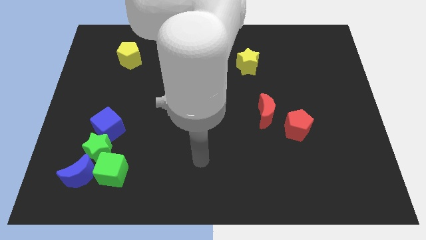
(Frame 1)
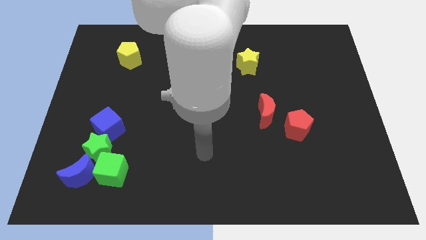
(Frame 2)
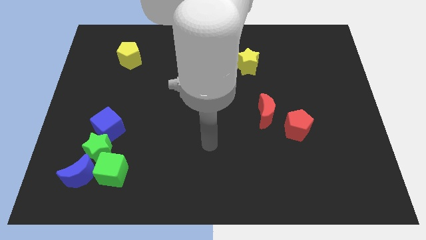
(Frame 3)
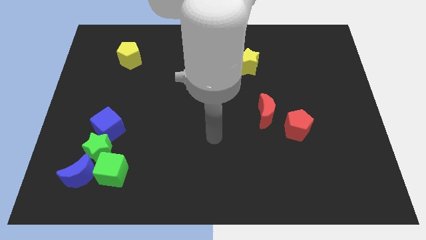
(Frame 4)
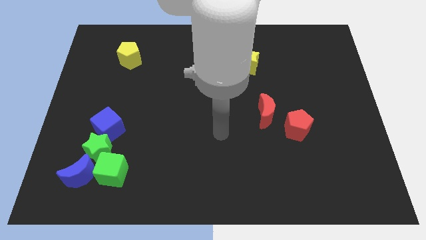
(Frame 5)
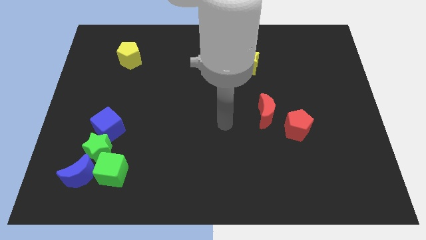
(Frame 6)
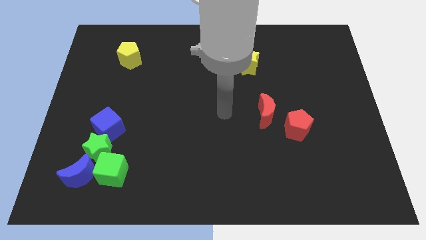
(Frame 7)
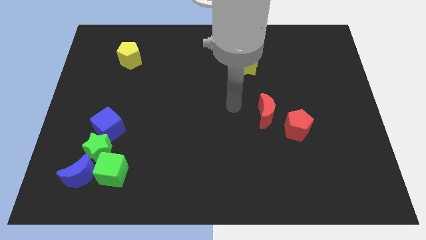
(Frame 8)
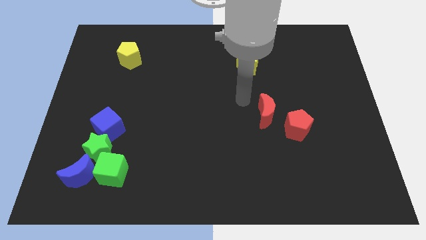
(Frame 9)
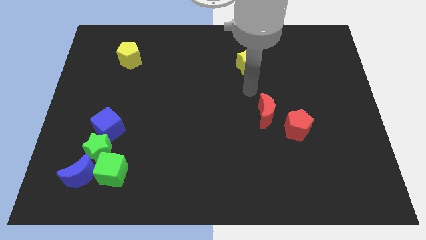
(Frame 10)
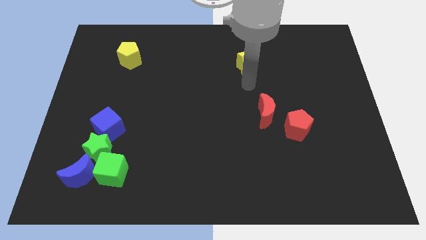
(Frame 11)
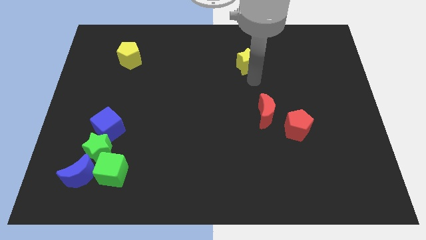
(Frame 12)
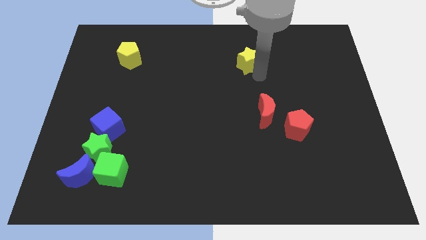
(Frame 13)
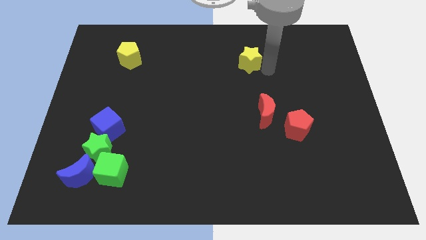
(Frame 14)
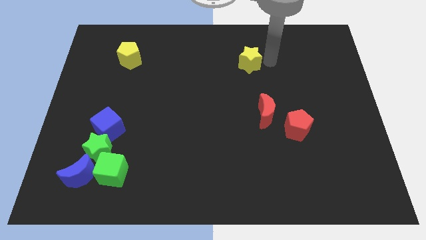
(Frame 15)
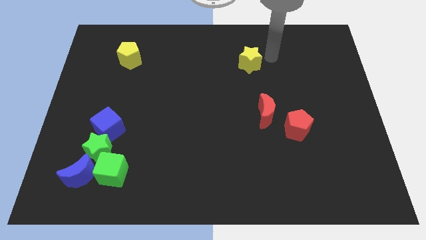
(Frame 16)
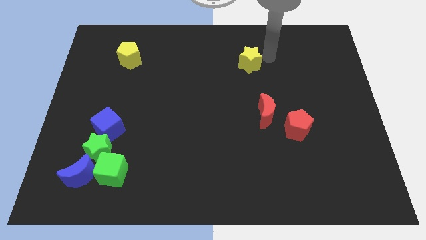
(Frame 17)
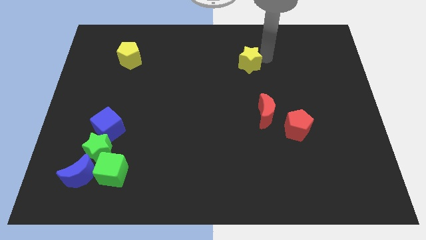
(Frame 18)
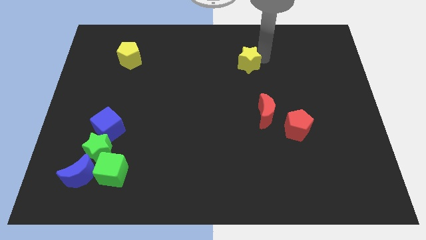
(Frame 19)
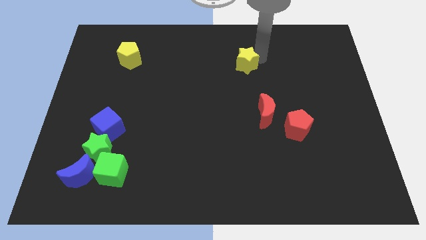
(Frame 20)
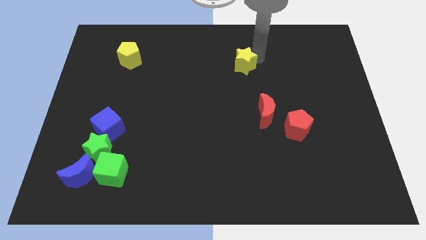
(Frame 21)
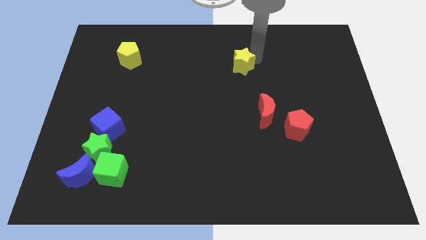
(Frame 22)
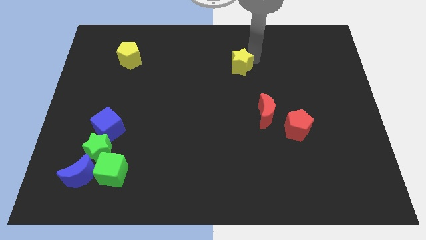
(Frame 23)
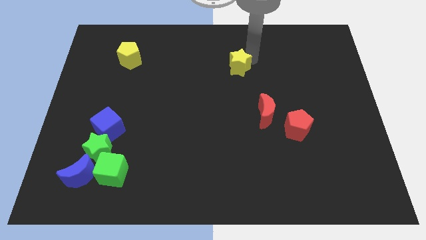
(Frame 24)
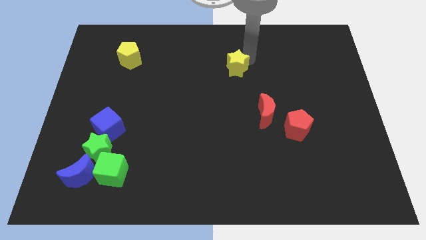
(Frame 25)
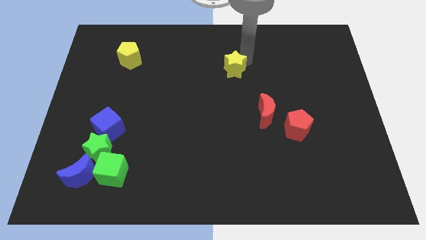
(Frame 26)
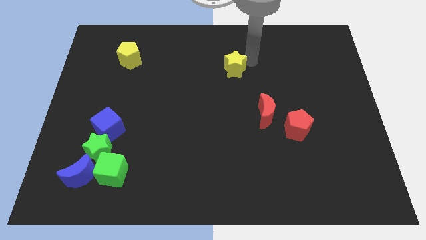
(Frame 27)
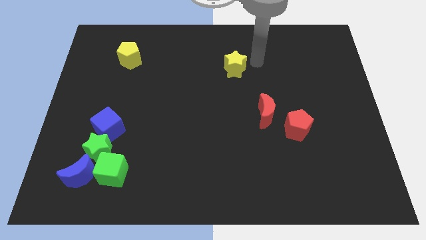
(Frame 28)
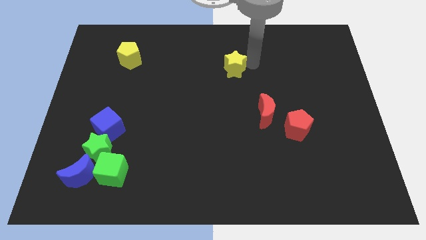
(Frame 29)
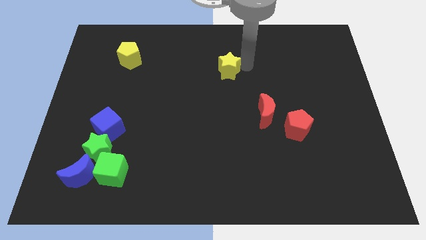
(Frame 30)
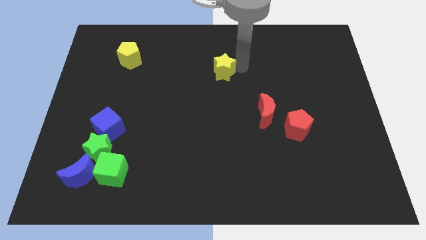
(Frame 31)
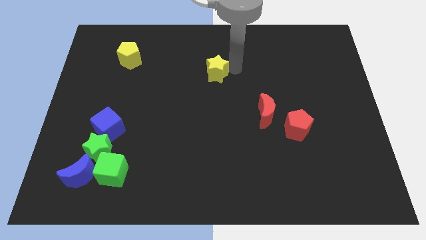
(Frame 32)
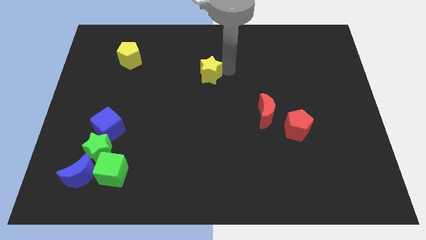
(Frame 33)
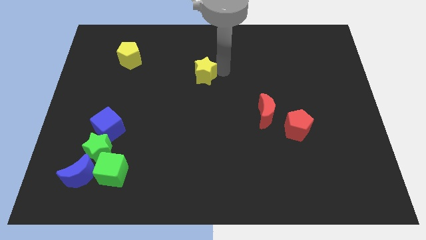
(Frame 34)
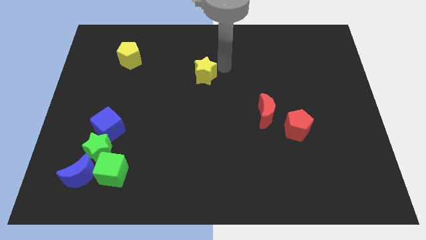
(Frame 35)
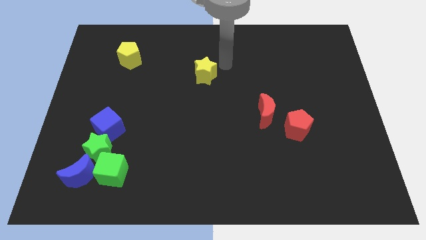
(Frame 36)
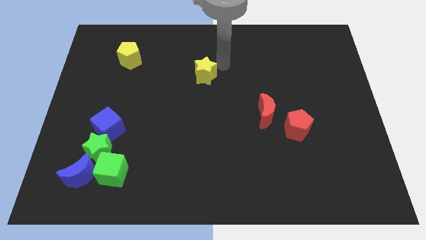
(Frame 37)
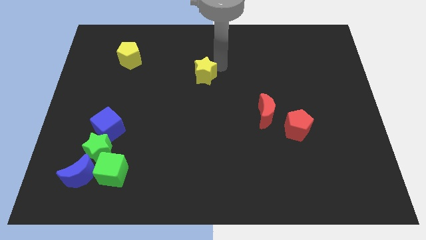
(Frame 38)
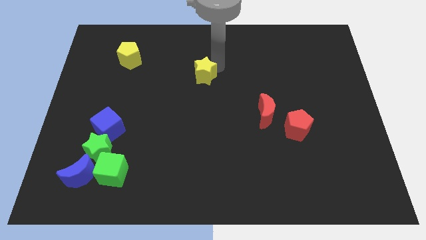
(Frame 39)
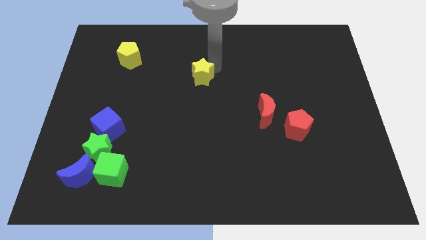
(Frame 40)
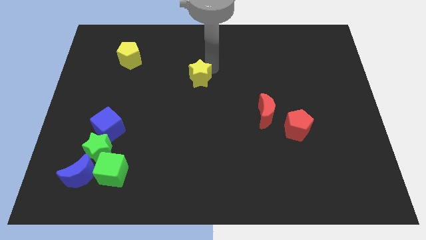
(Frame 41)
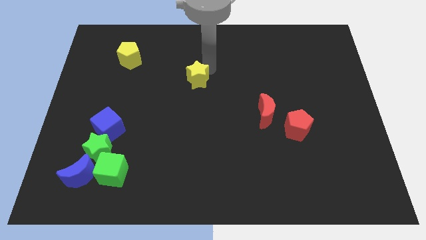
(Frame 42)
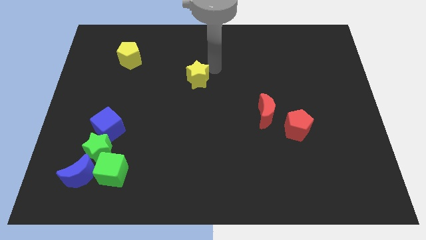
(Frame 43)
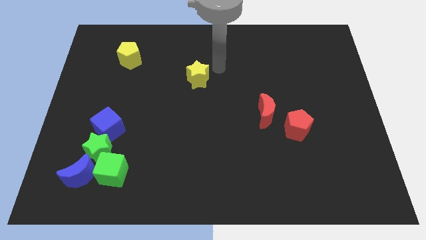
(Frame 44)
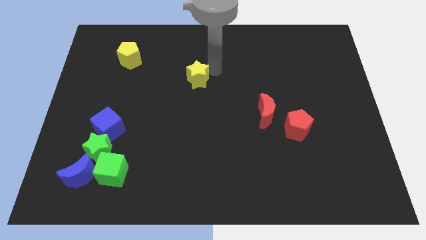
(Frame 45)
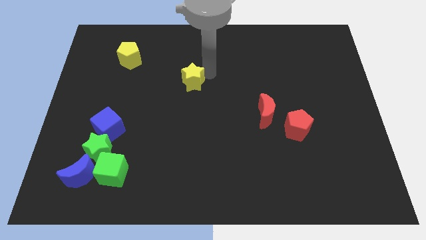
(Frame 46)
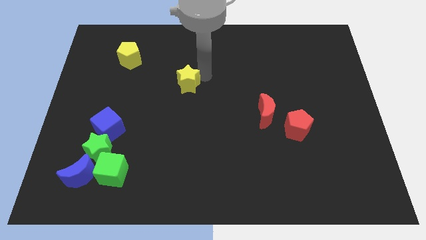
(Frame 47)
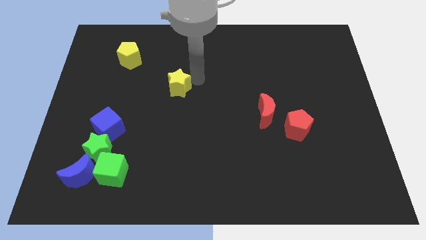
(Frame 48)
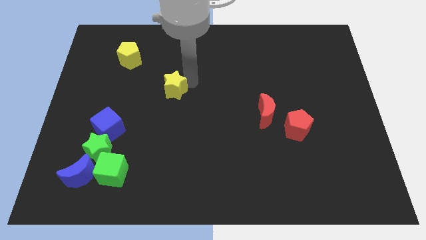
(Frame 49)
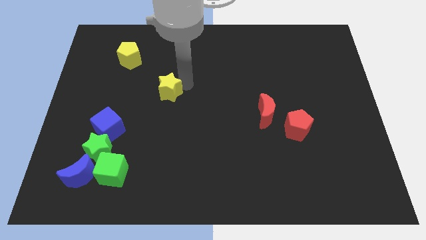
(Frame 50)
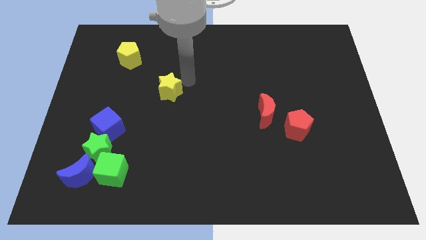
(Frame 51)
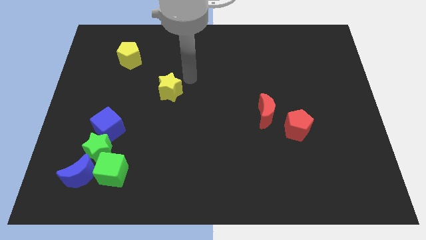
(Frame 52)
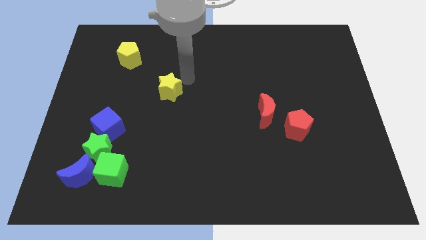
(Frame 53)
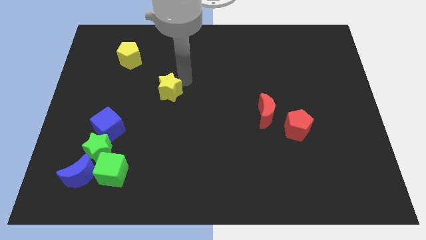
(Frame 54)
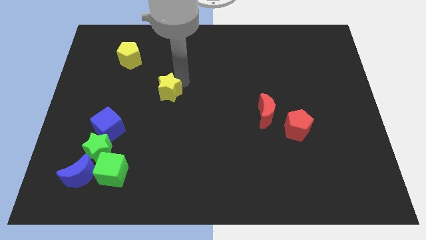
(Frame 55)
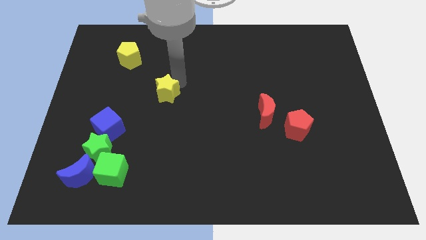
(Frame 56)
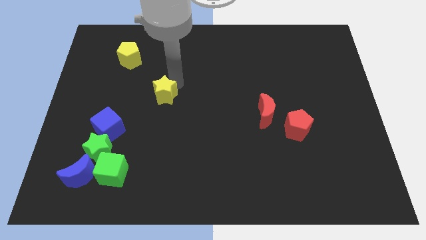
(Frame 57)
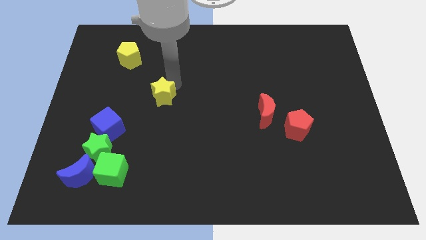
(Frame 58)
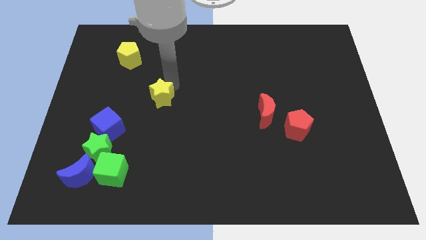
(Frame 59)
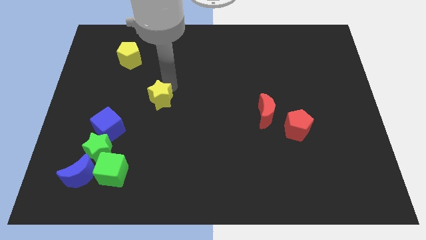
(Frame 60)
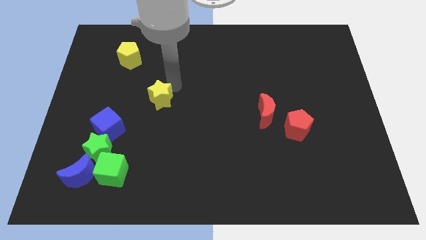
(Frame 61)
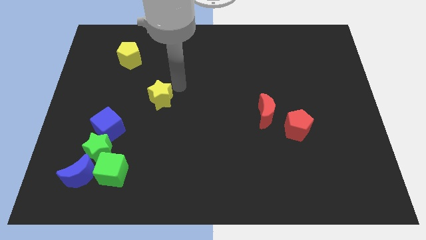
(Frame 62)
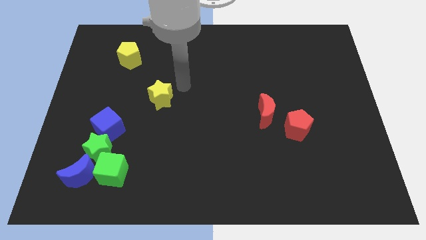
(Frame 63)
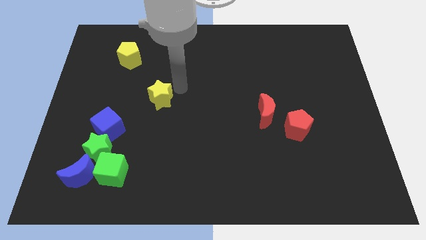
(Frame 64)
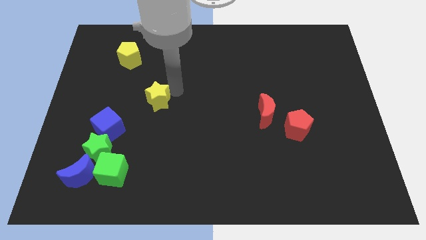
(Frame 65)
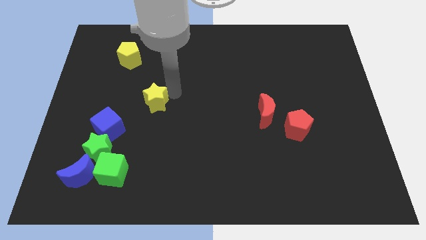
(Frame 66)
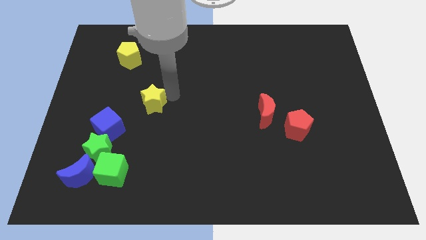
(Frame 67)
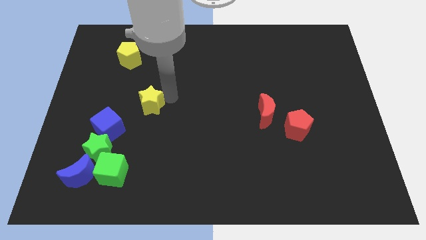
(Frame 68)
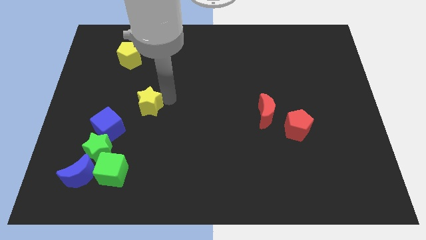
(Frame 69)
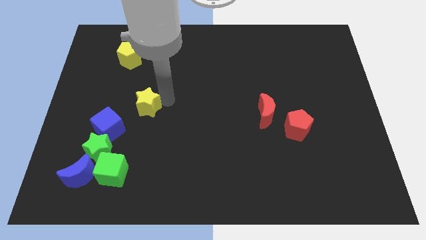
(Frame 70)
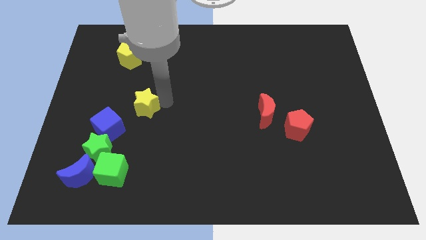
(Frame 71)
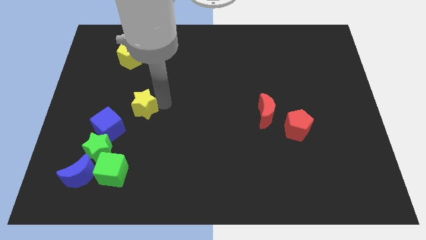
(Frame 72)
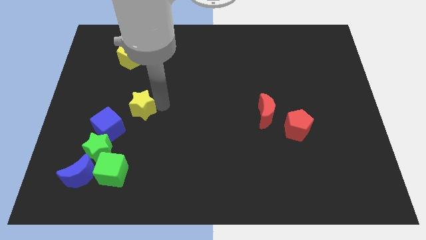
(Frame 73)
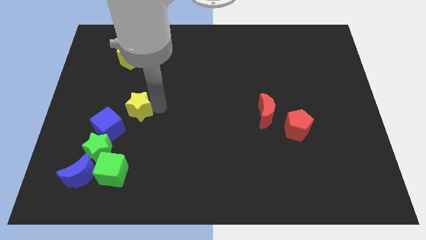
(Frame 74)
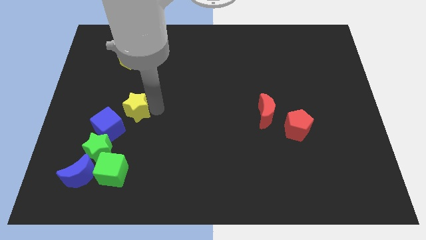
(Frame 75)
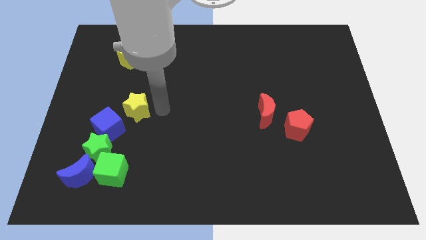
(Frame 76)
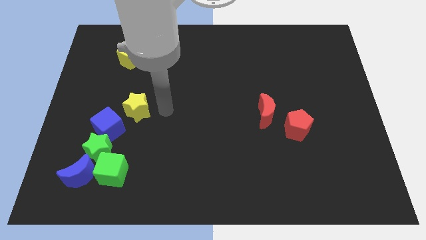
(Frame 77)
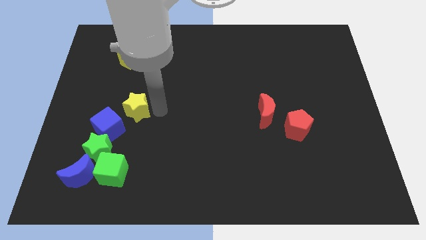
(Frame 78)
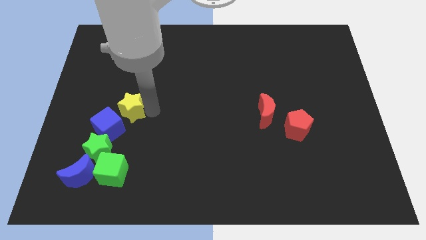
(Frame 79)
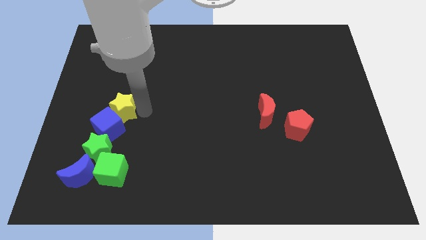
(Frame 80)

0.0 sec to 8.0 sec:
push the yellow star above the green star

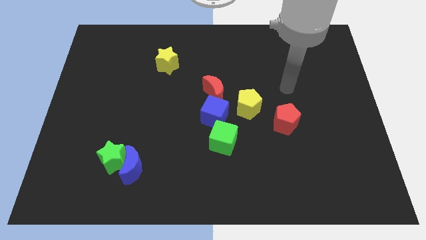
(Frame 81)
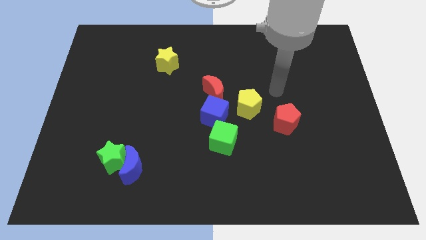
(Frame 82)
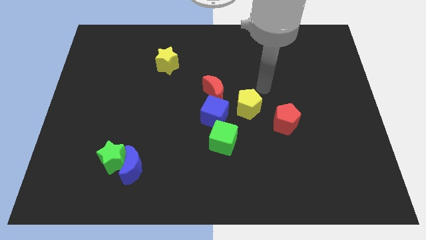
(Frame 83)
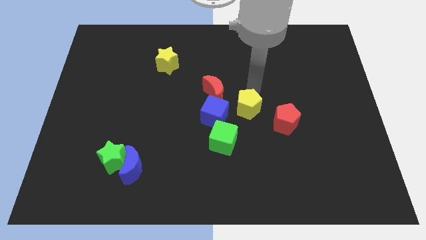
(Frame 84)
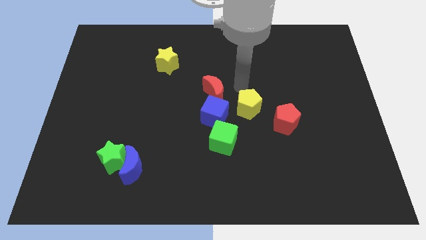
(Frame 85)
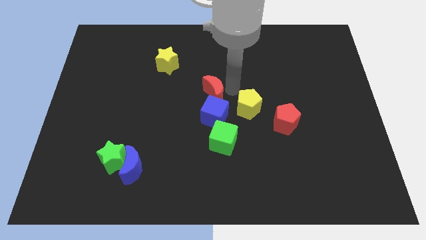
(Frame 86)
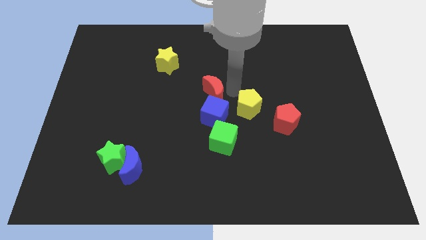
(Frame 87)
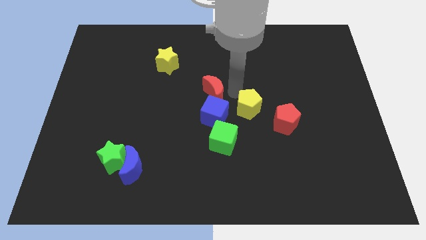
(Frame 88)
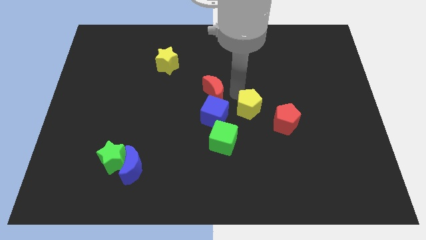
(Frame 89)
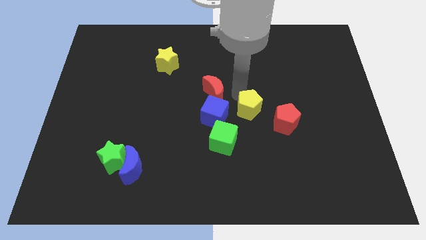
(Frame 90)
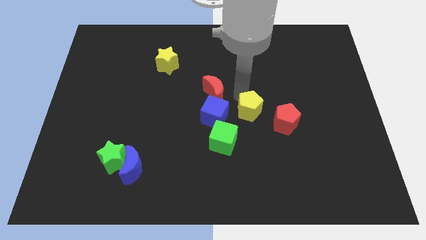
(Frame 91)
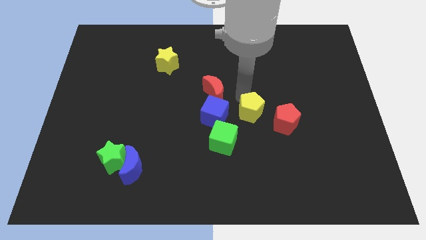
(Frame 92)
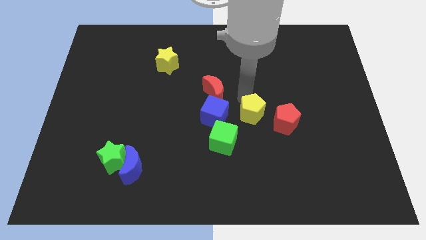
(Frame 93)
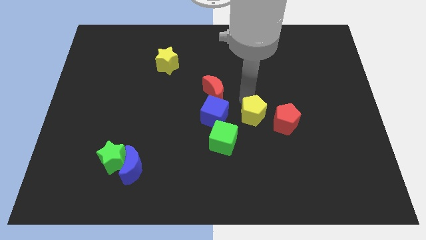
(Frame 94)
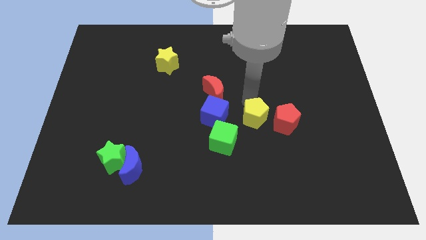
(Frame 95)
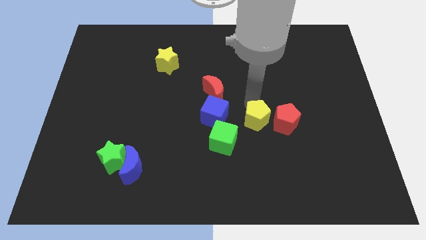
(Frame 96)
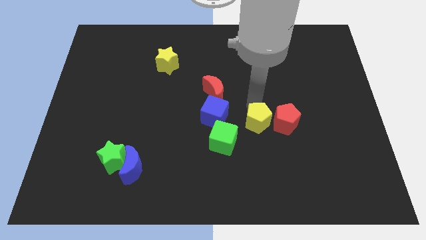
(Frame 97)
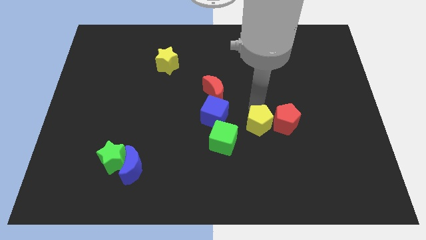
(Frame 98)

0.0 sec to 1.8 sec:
slide the yellow pentagon to the right side of the green cube
